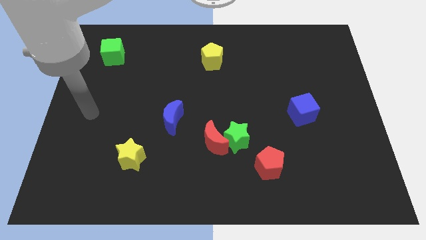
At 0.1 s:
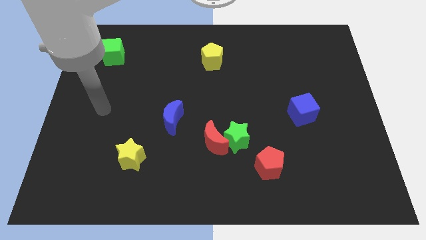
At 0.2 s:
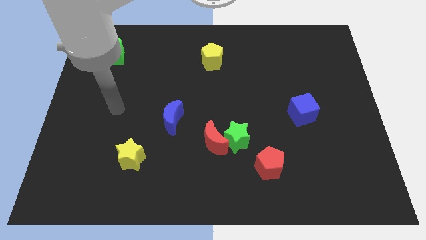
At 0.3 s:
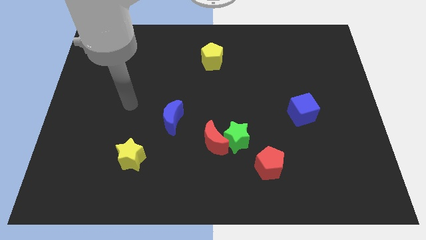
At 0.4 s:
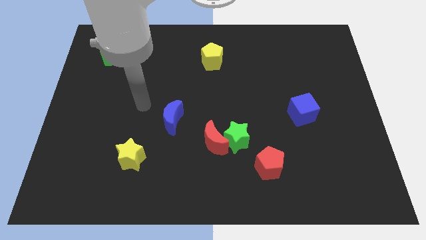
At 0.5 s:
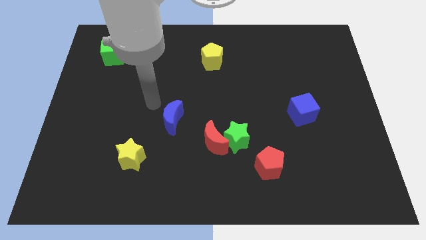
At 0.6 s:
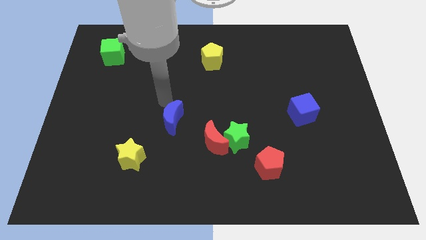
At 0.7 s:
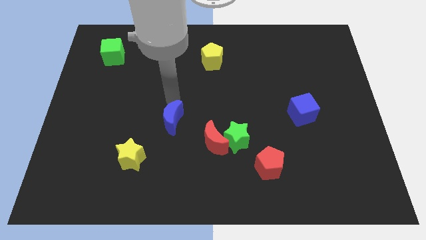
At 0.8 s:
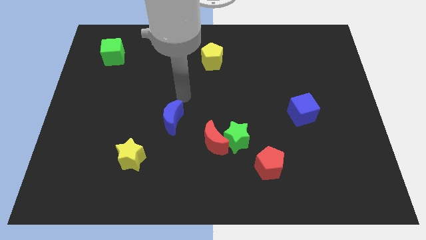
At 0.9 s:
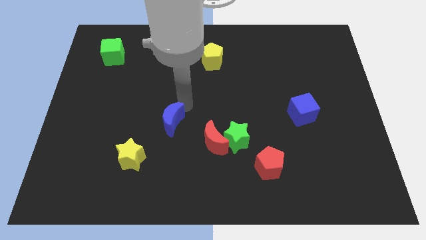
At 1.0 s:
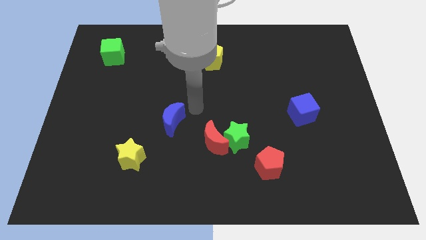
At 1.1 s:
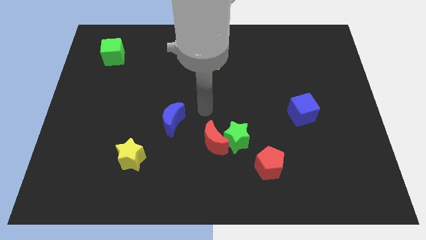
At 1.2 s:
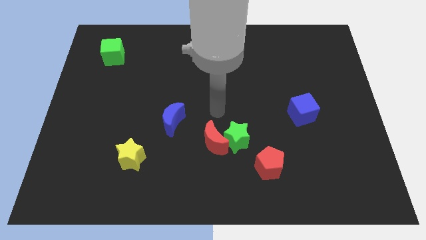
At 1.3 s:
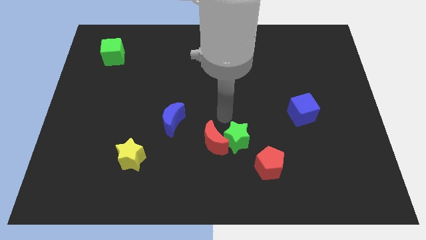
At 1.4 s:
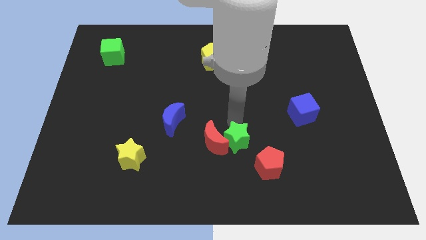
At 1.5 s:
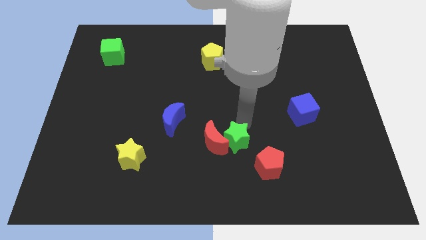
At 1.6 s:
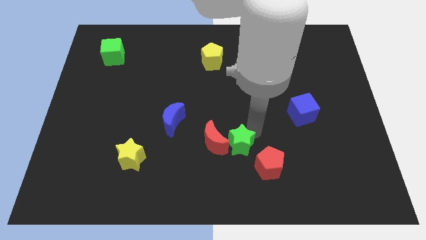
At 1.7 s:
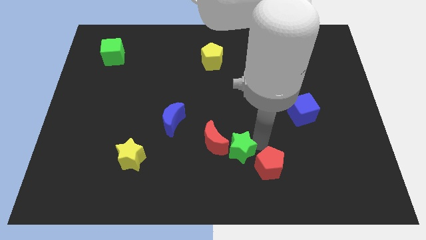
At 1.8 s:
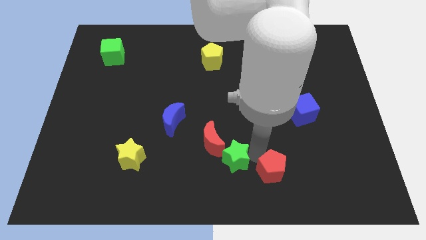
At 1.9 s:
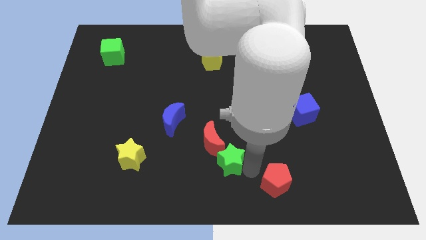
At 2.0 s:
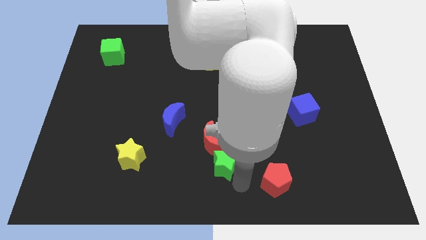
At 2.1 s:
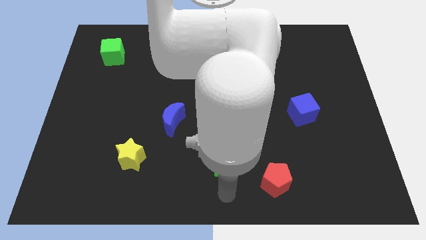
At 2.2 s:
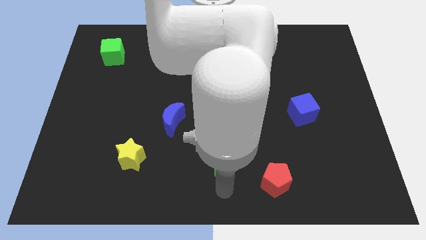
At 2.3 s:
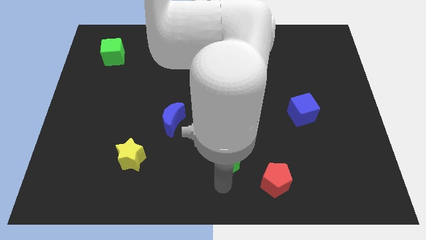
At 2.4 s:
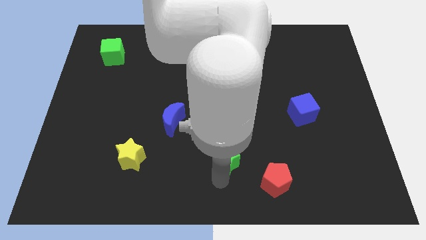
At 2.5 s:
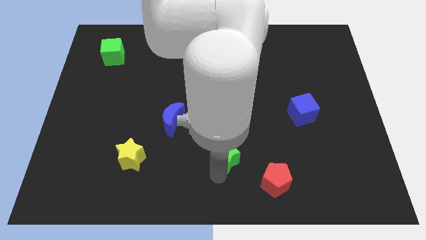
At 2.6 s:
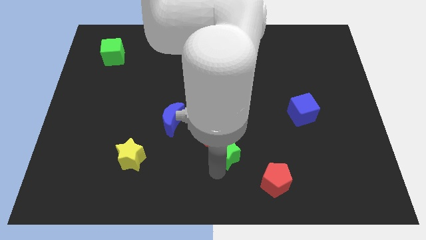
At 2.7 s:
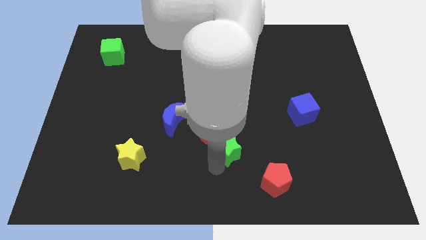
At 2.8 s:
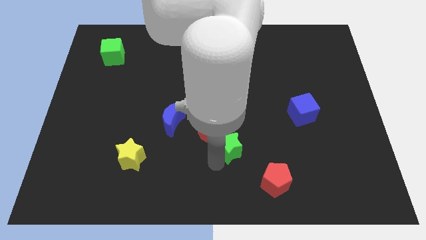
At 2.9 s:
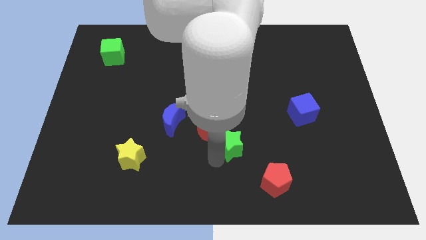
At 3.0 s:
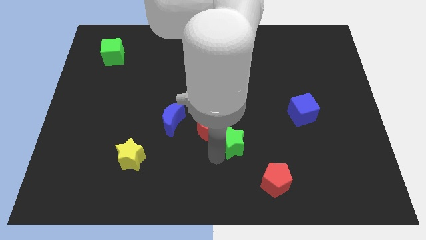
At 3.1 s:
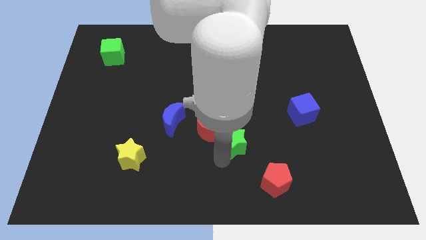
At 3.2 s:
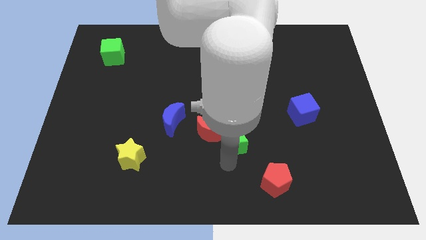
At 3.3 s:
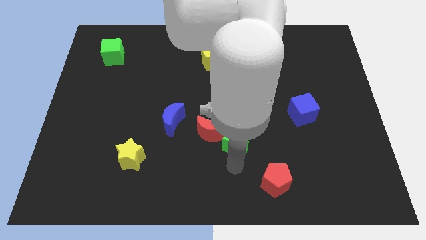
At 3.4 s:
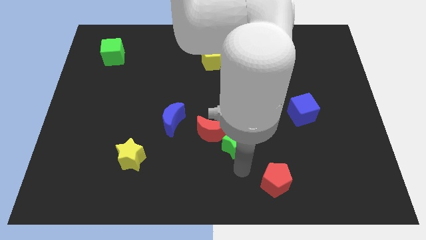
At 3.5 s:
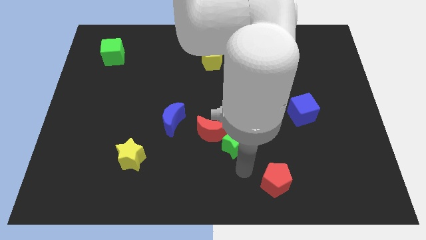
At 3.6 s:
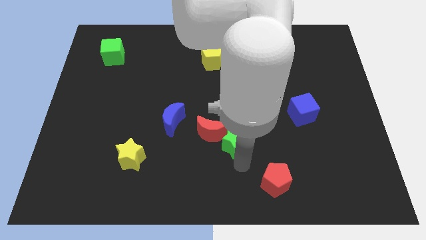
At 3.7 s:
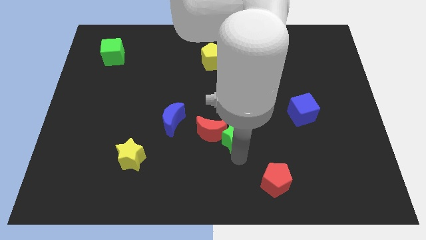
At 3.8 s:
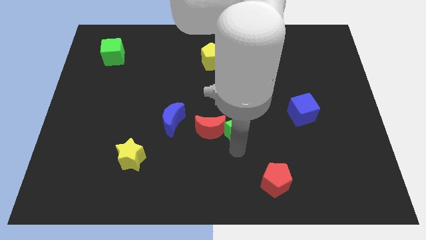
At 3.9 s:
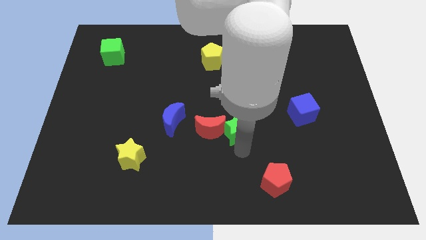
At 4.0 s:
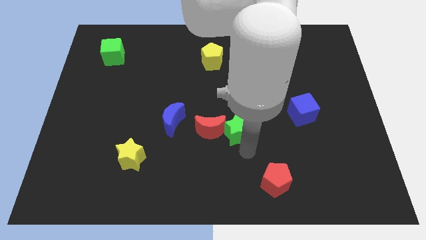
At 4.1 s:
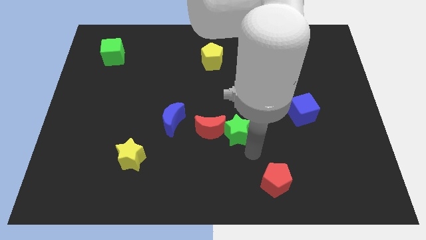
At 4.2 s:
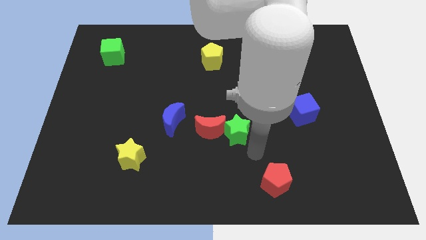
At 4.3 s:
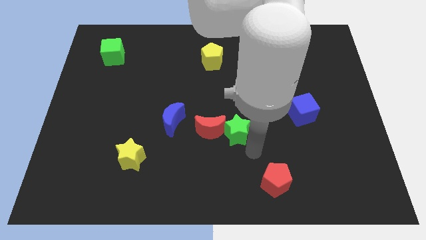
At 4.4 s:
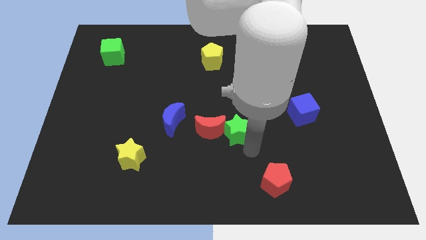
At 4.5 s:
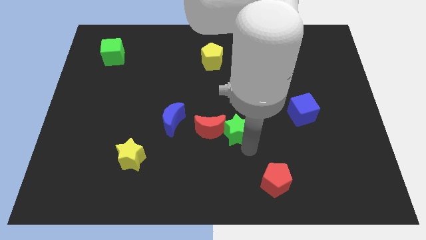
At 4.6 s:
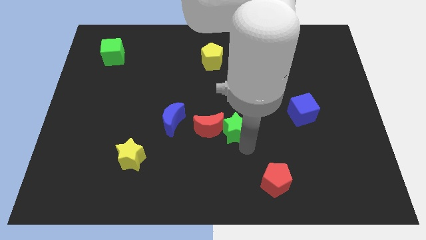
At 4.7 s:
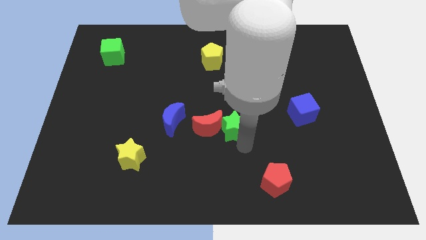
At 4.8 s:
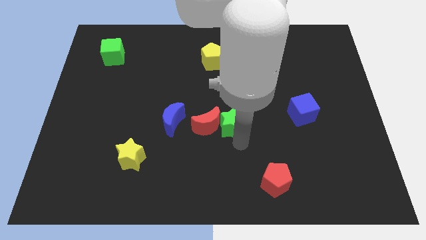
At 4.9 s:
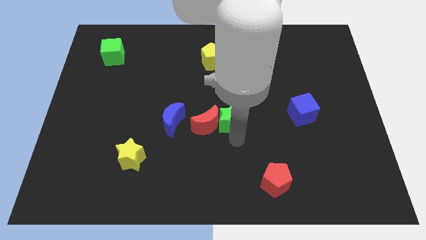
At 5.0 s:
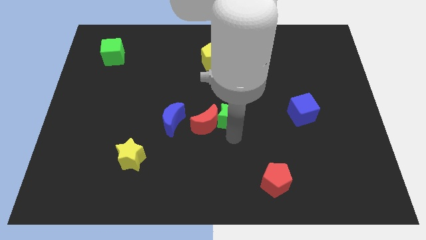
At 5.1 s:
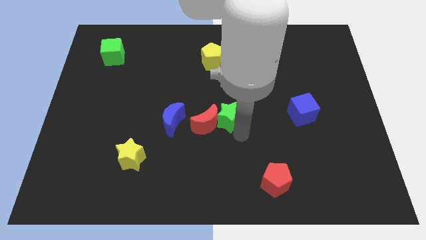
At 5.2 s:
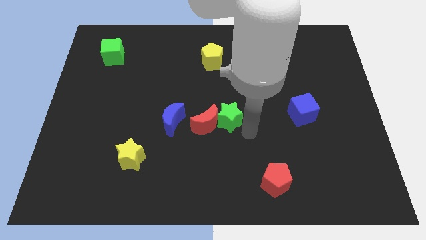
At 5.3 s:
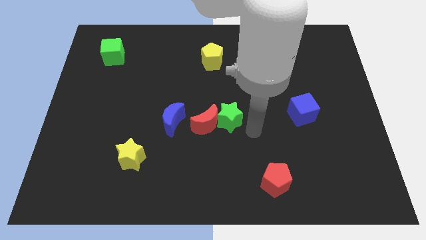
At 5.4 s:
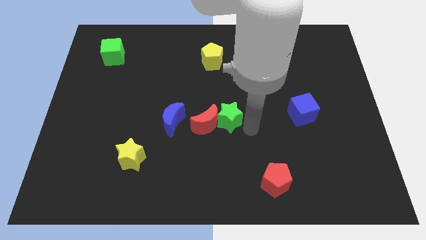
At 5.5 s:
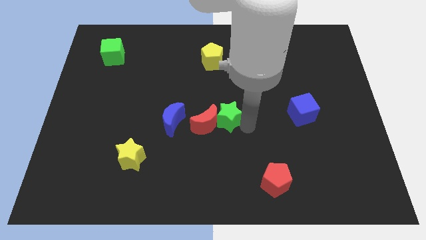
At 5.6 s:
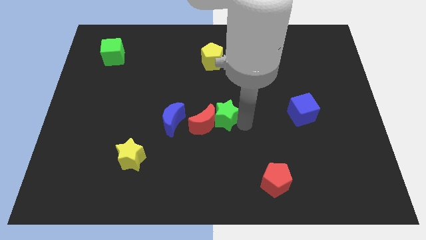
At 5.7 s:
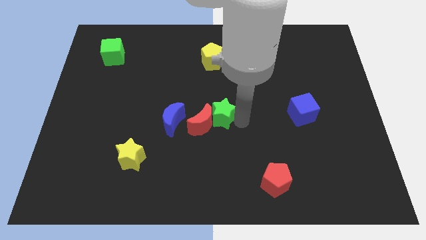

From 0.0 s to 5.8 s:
move the green star upwards and then to the left a little bit

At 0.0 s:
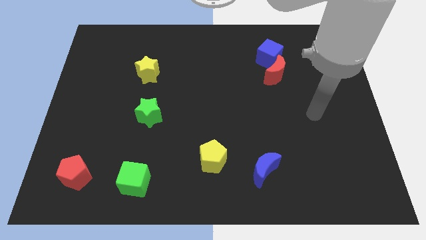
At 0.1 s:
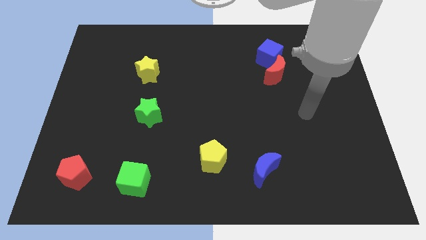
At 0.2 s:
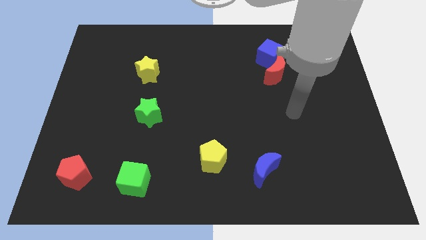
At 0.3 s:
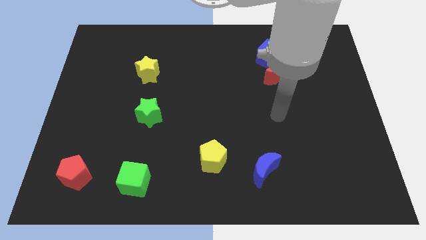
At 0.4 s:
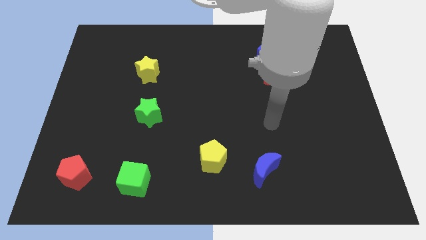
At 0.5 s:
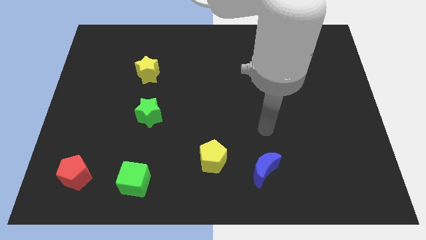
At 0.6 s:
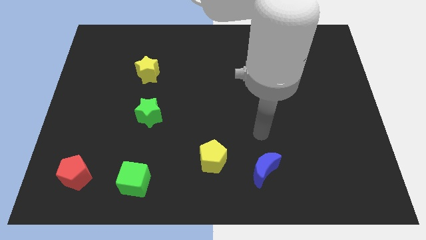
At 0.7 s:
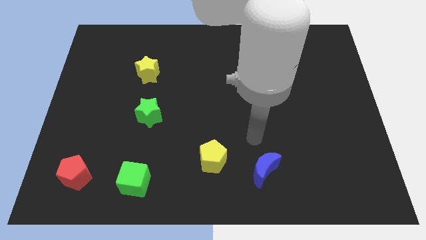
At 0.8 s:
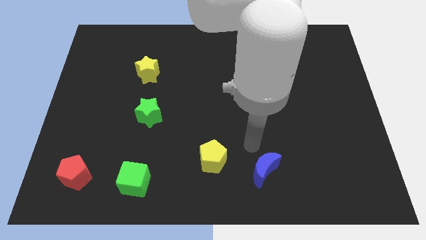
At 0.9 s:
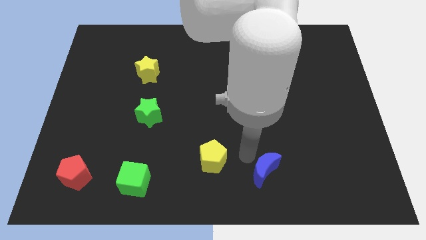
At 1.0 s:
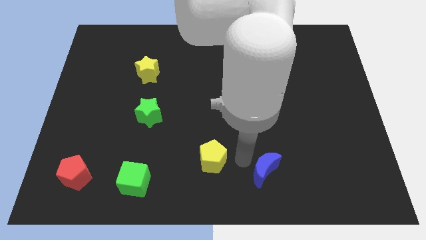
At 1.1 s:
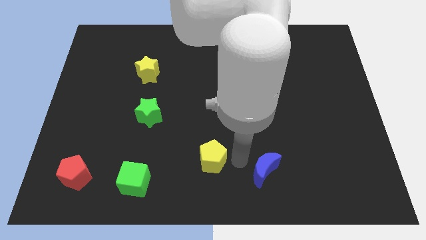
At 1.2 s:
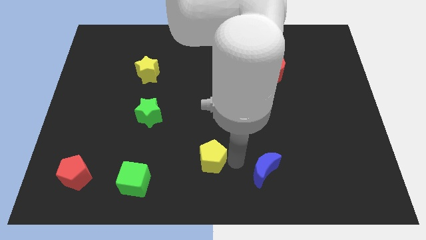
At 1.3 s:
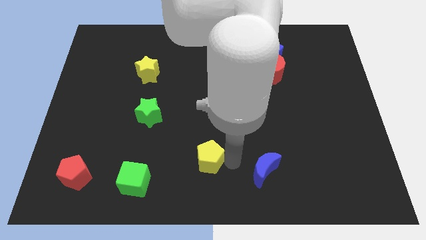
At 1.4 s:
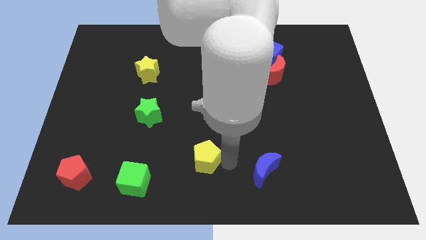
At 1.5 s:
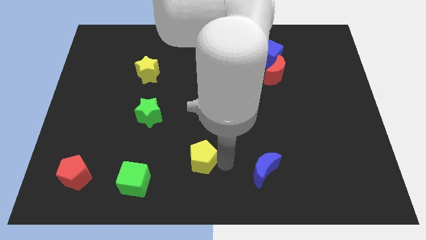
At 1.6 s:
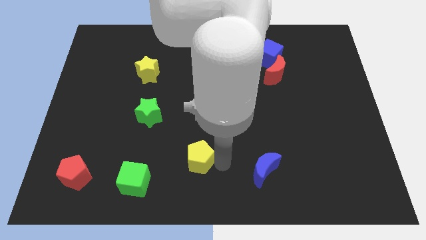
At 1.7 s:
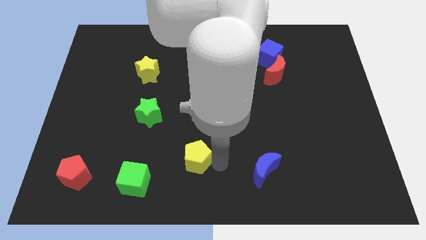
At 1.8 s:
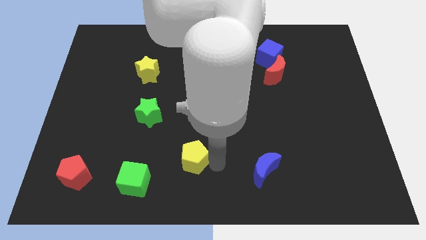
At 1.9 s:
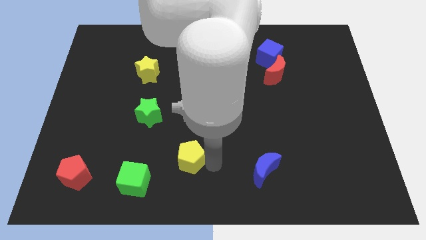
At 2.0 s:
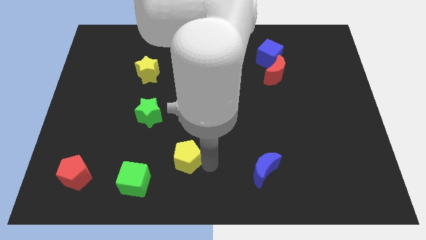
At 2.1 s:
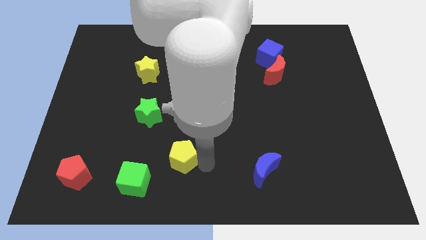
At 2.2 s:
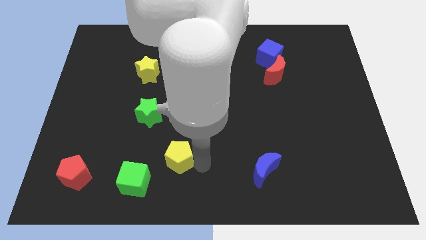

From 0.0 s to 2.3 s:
move the yellow pentagon left slightly
